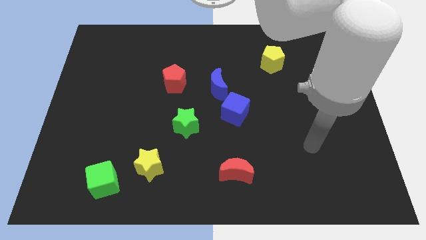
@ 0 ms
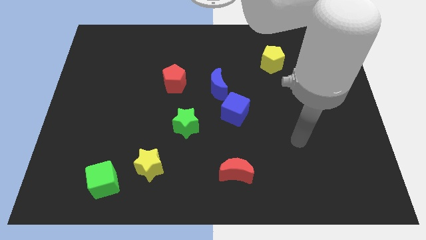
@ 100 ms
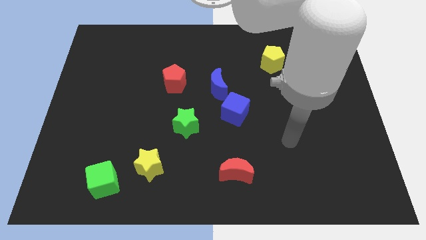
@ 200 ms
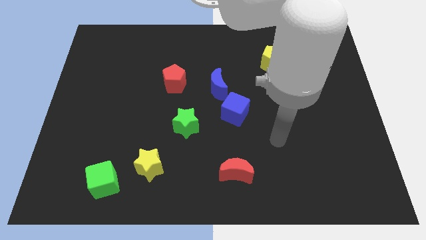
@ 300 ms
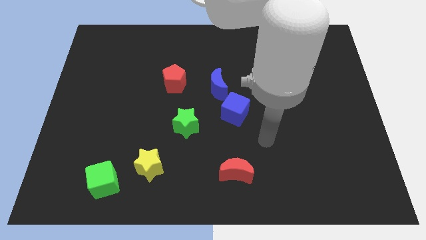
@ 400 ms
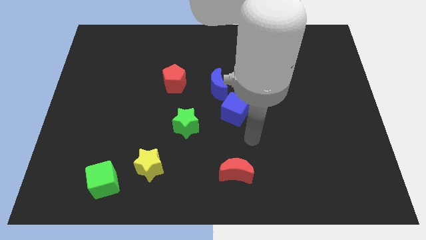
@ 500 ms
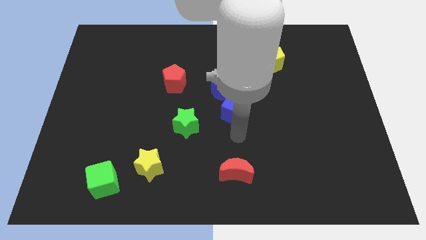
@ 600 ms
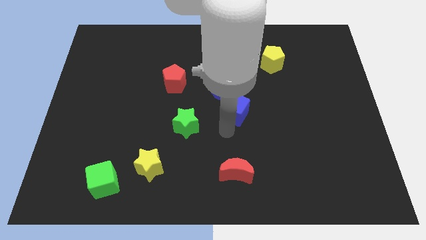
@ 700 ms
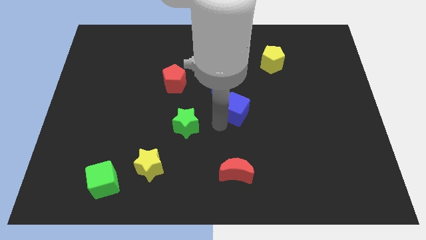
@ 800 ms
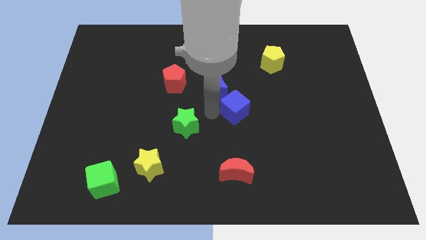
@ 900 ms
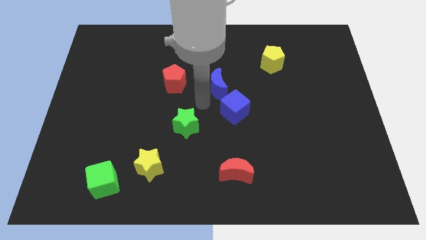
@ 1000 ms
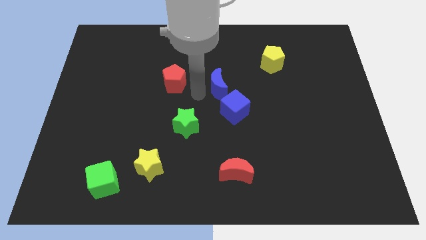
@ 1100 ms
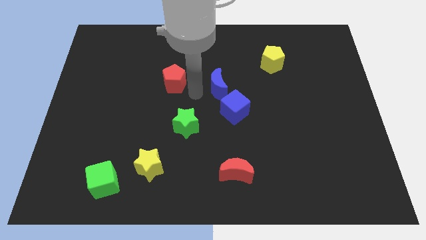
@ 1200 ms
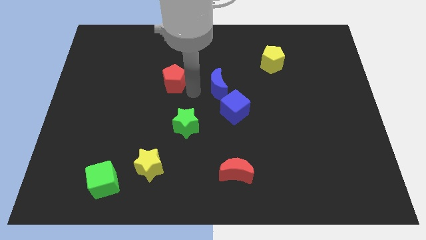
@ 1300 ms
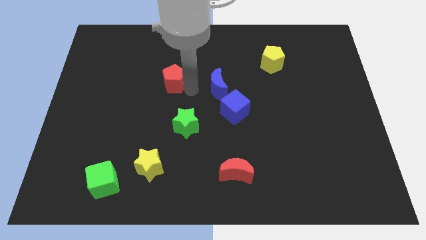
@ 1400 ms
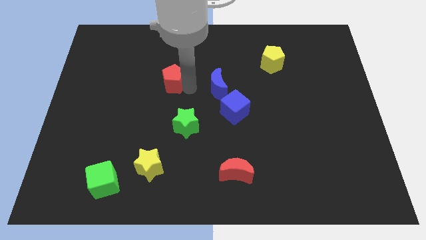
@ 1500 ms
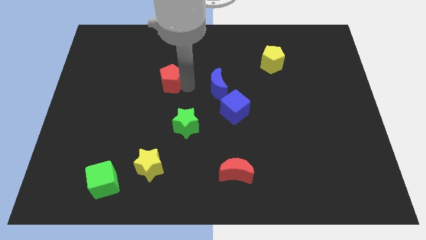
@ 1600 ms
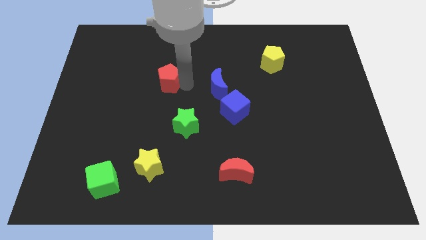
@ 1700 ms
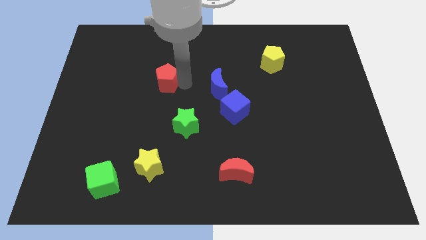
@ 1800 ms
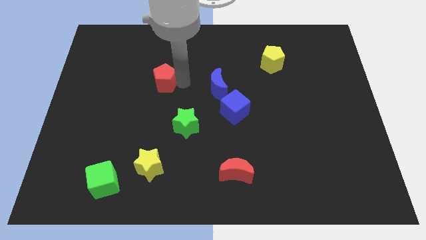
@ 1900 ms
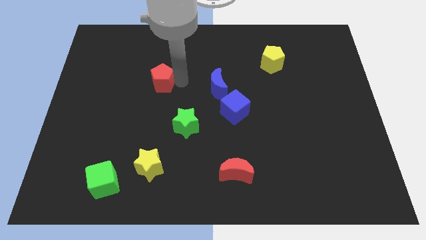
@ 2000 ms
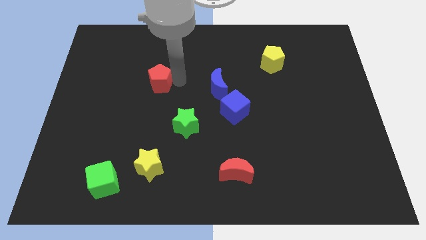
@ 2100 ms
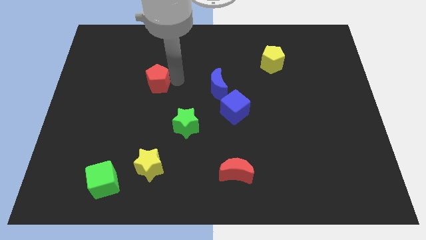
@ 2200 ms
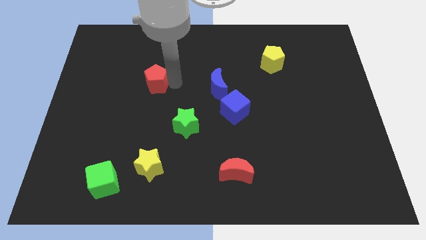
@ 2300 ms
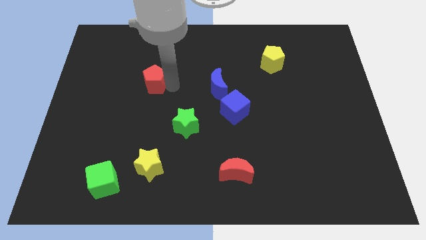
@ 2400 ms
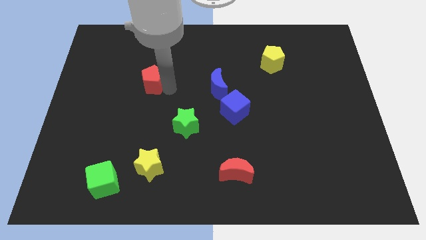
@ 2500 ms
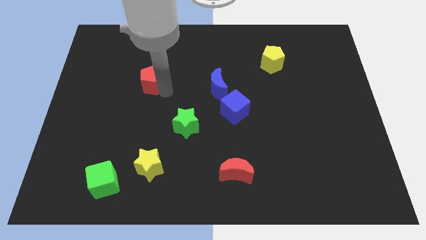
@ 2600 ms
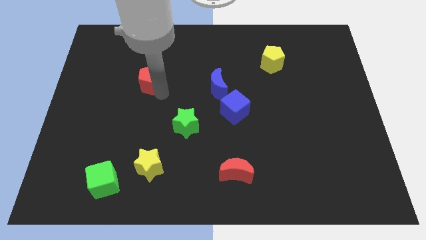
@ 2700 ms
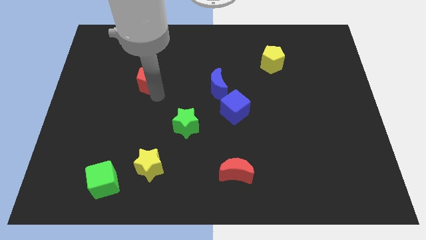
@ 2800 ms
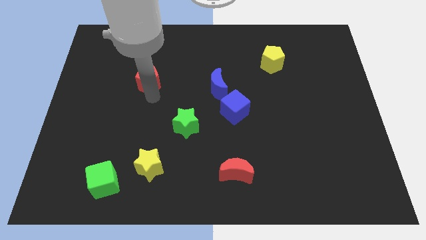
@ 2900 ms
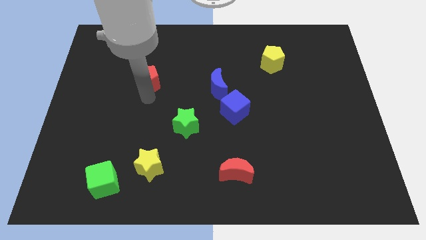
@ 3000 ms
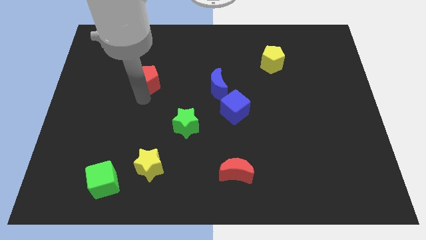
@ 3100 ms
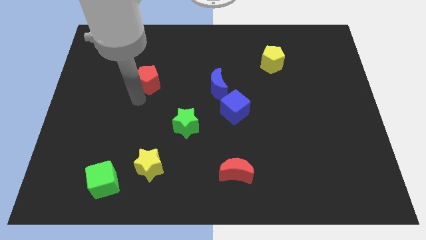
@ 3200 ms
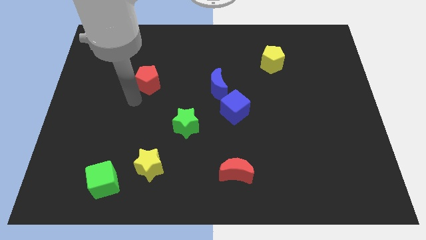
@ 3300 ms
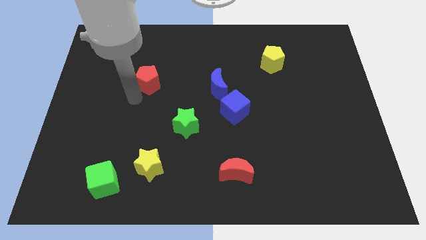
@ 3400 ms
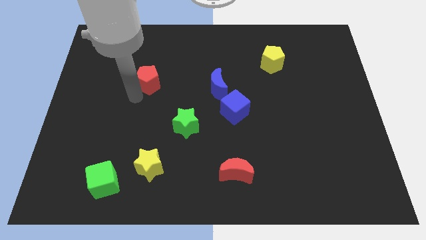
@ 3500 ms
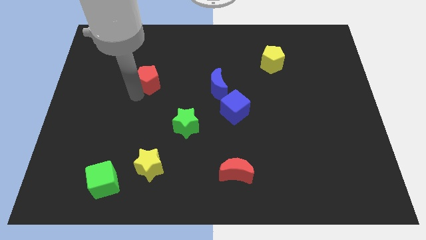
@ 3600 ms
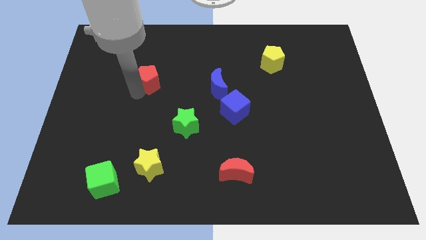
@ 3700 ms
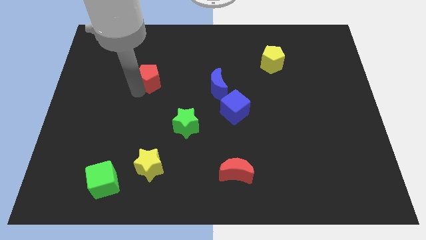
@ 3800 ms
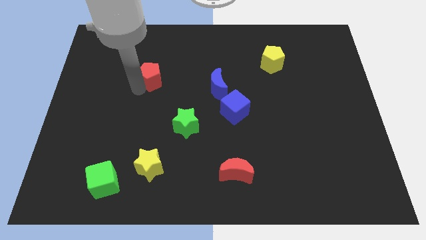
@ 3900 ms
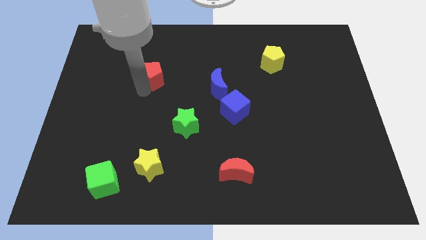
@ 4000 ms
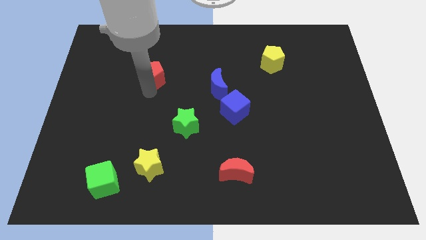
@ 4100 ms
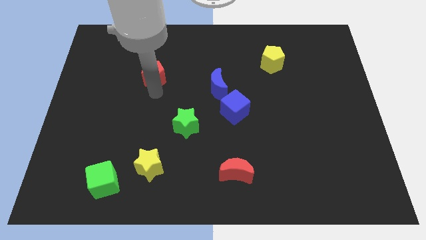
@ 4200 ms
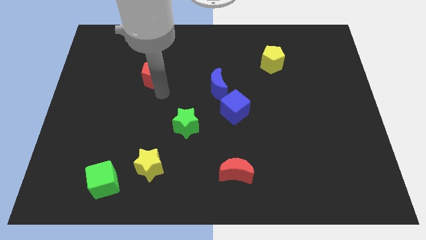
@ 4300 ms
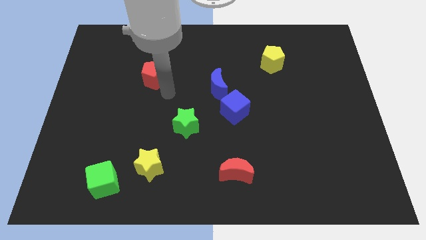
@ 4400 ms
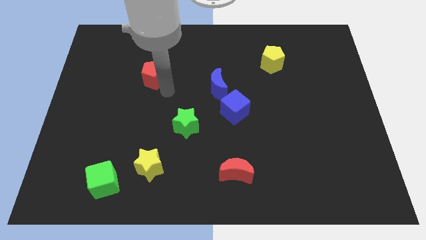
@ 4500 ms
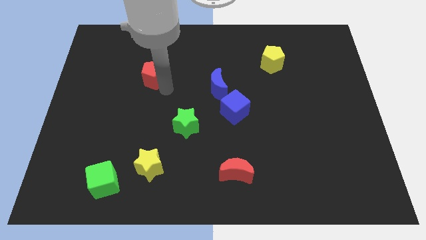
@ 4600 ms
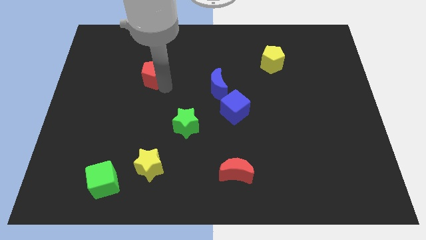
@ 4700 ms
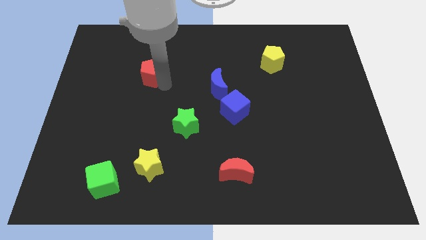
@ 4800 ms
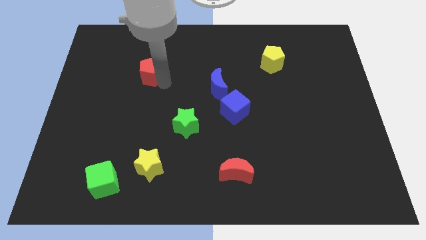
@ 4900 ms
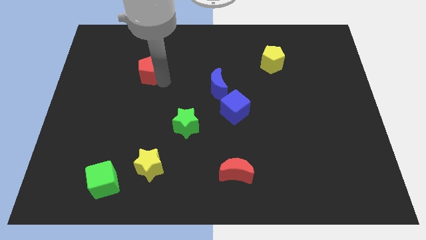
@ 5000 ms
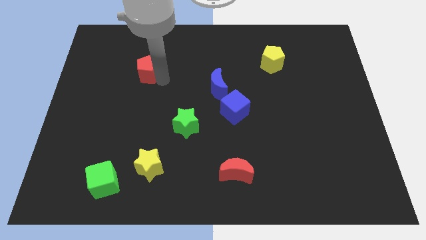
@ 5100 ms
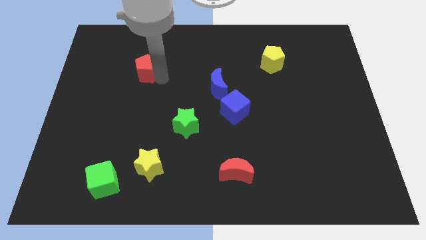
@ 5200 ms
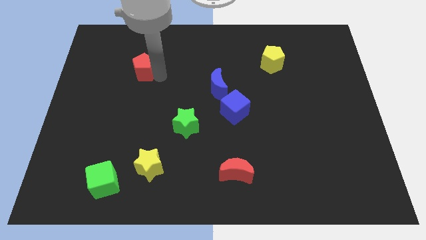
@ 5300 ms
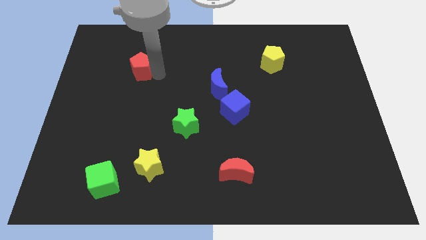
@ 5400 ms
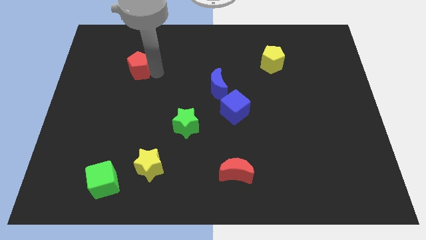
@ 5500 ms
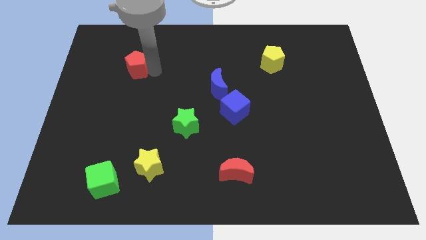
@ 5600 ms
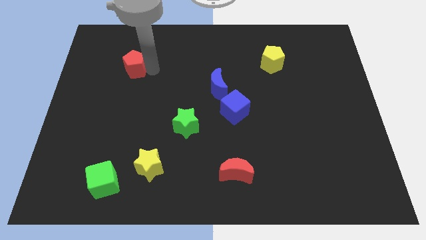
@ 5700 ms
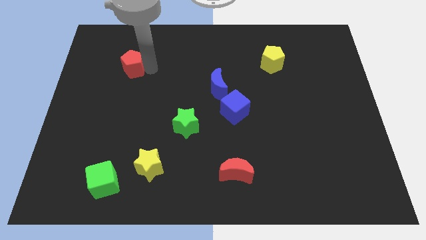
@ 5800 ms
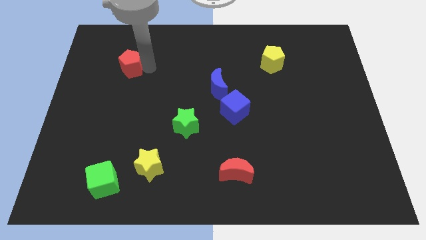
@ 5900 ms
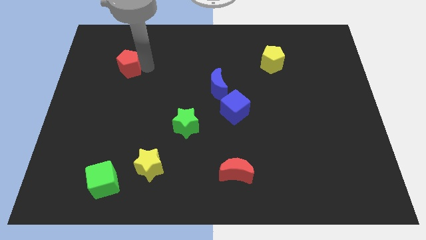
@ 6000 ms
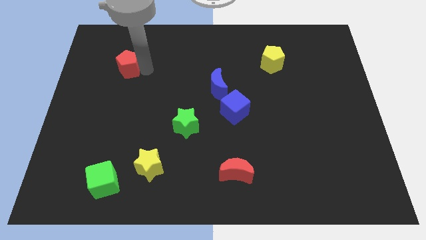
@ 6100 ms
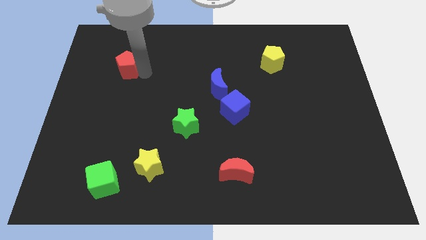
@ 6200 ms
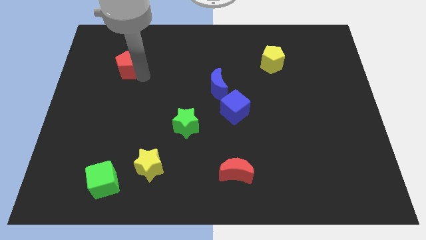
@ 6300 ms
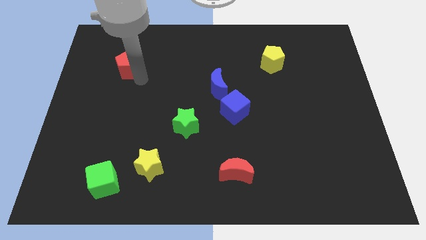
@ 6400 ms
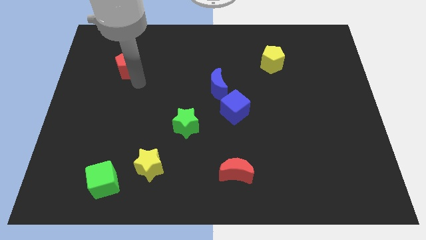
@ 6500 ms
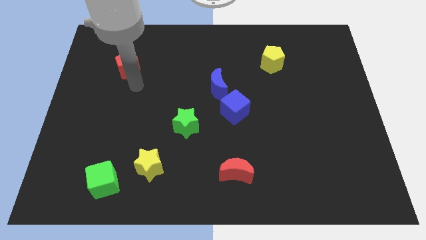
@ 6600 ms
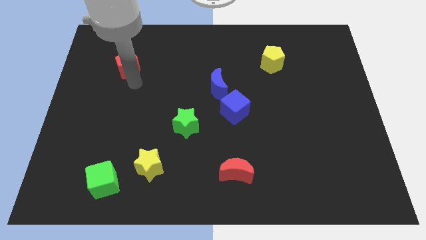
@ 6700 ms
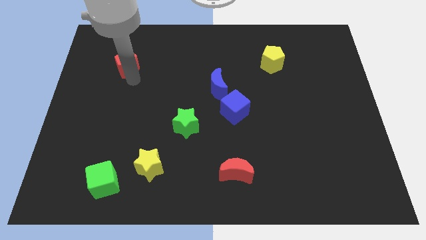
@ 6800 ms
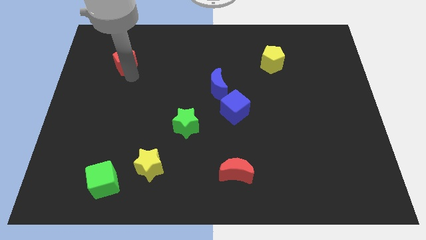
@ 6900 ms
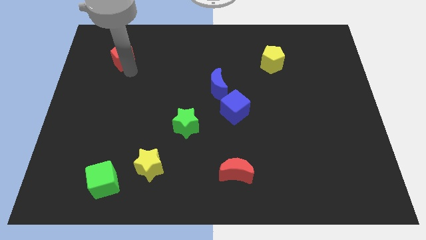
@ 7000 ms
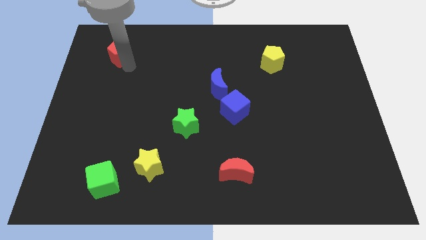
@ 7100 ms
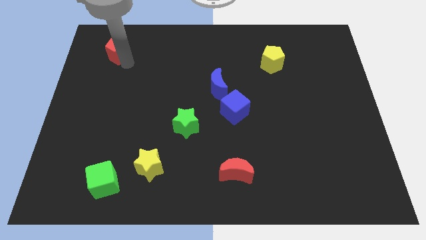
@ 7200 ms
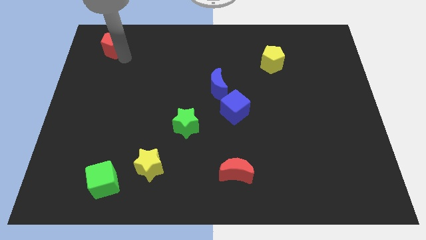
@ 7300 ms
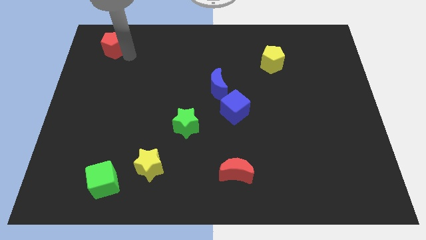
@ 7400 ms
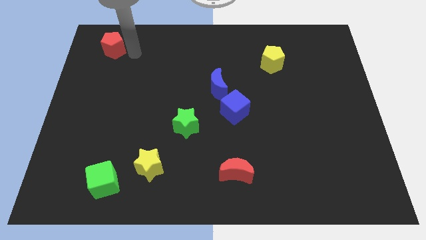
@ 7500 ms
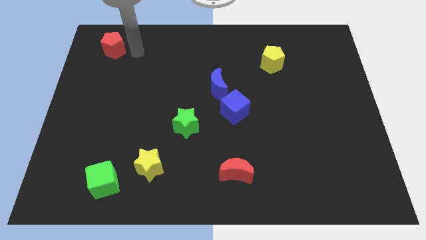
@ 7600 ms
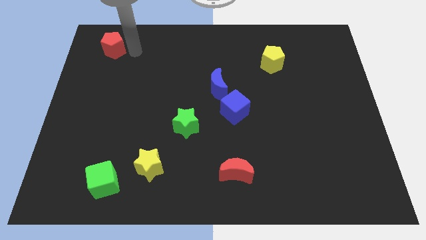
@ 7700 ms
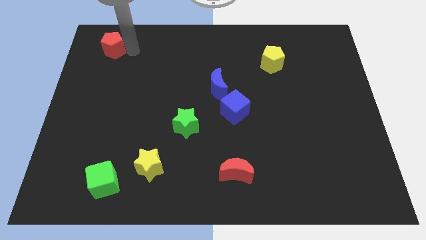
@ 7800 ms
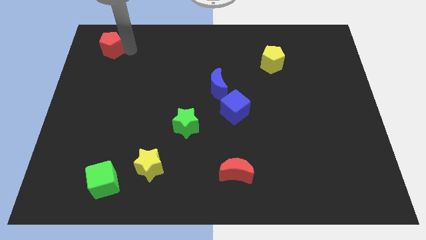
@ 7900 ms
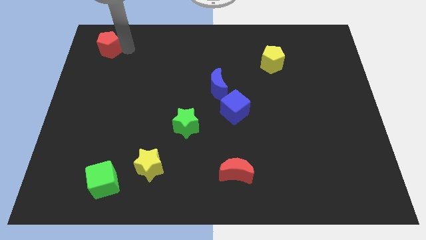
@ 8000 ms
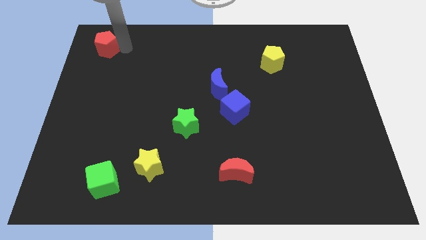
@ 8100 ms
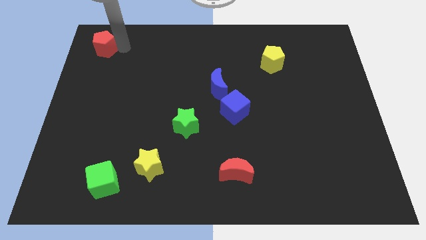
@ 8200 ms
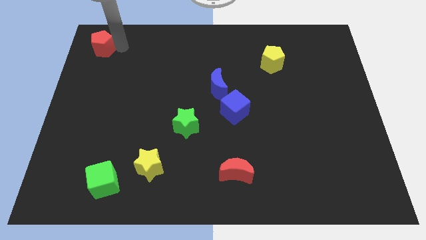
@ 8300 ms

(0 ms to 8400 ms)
slide the red pentagon to the top left of the board
